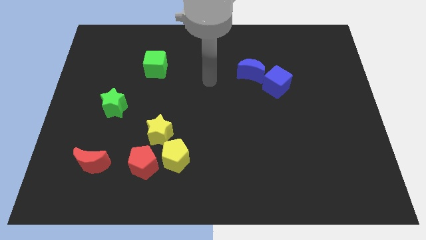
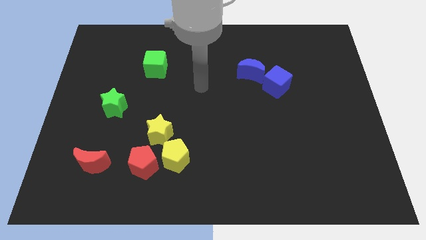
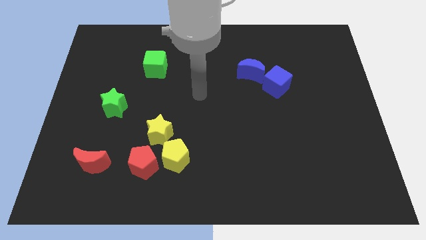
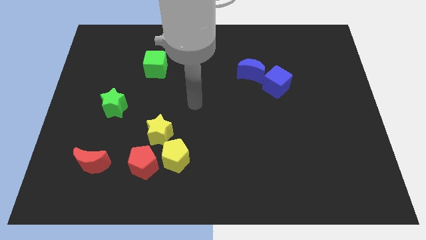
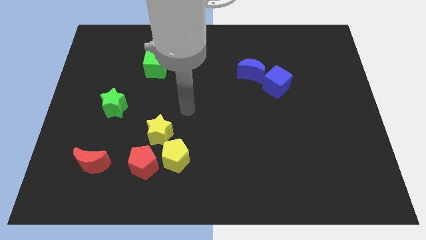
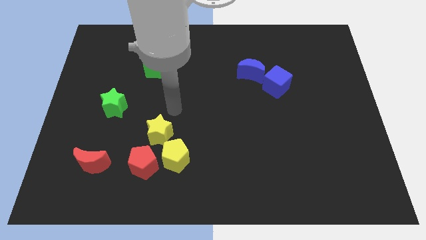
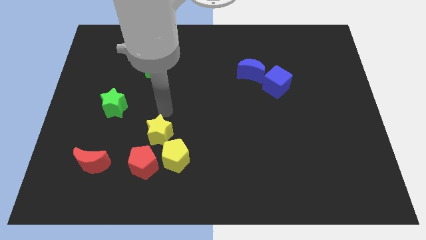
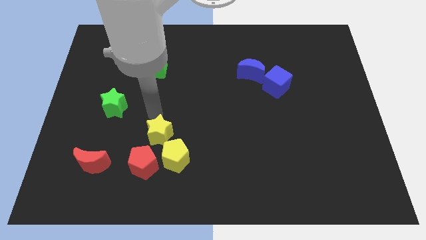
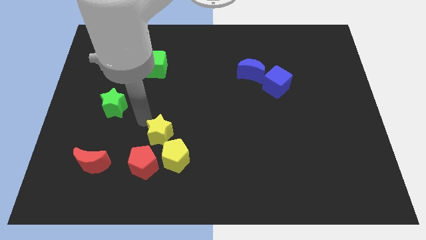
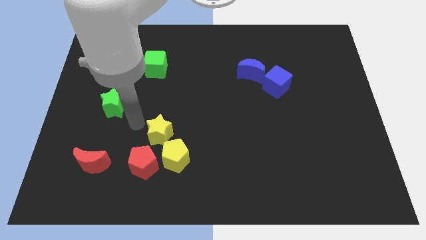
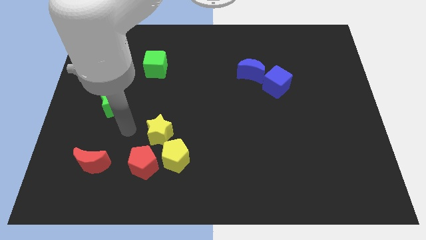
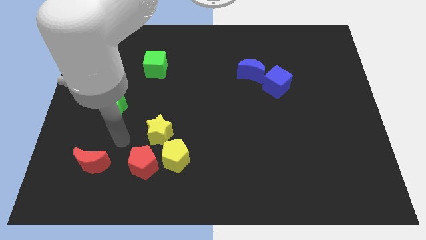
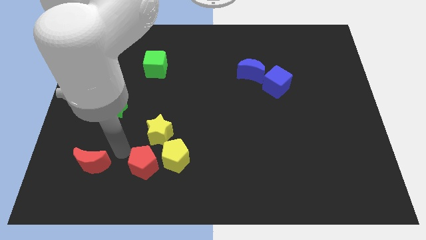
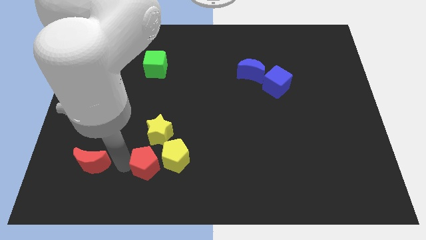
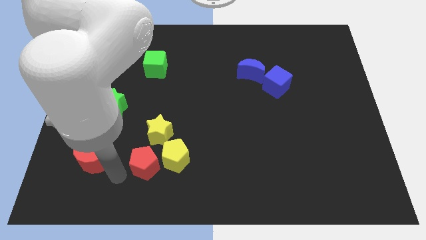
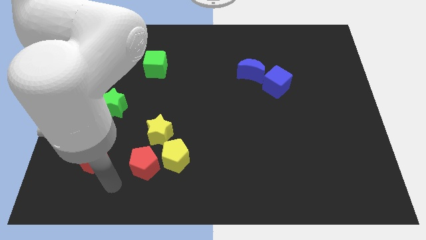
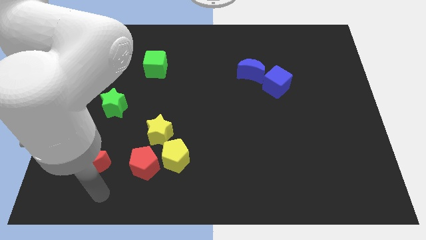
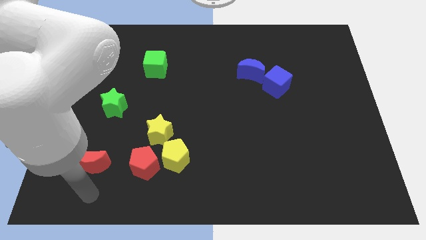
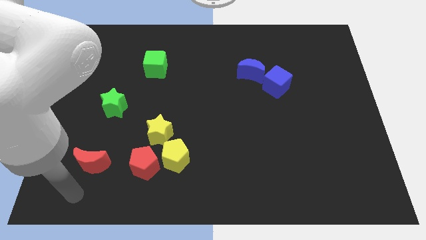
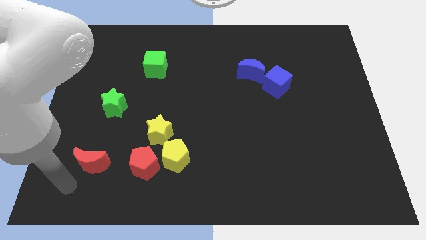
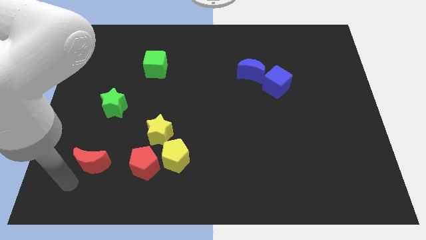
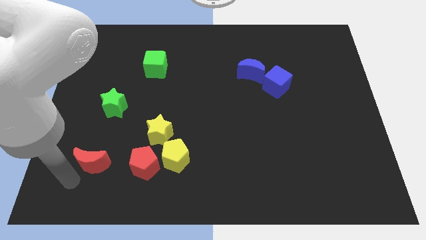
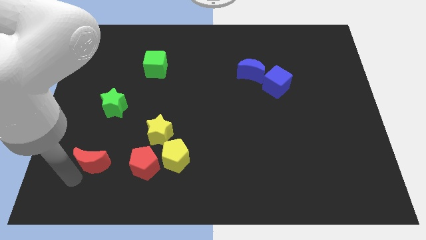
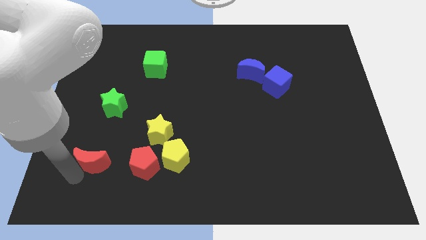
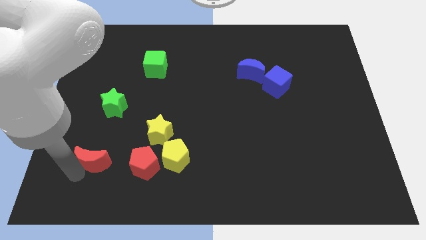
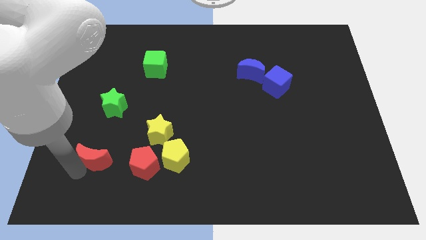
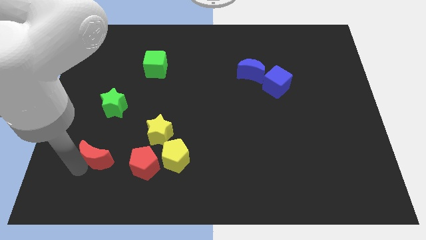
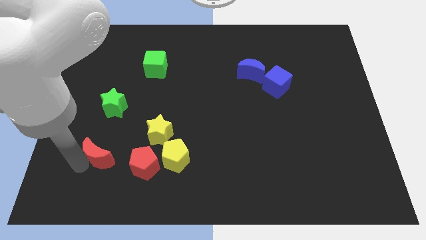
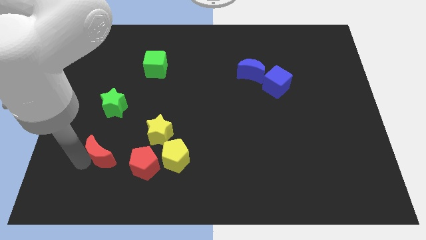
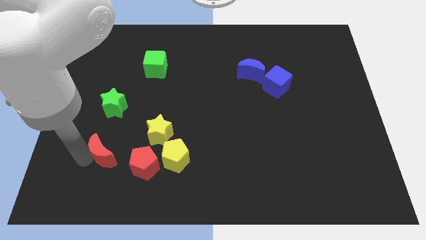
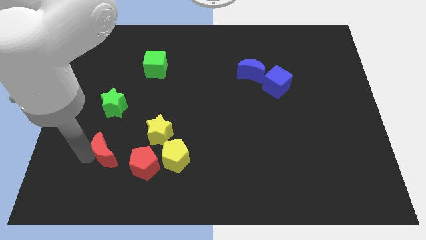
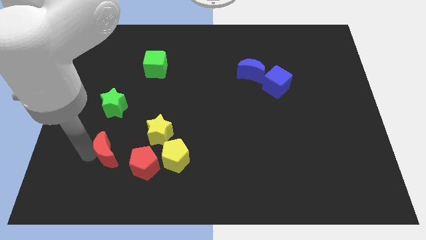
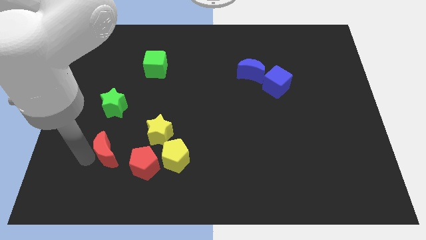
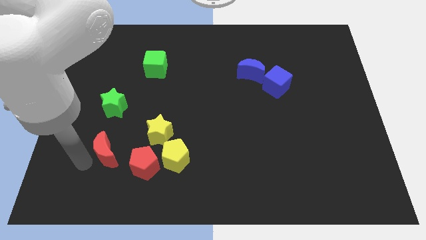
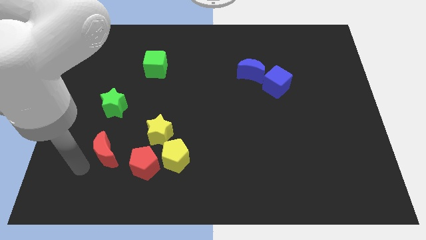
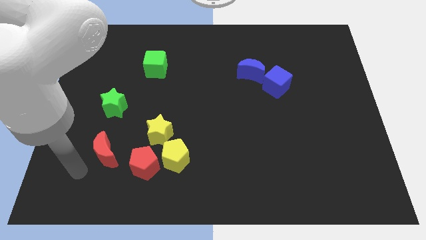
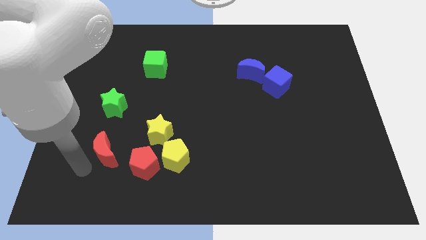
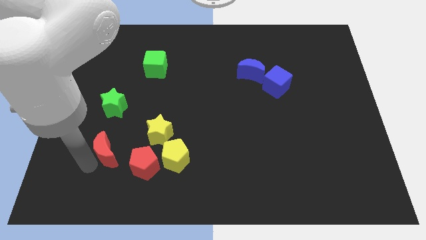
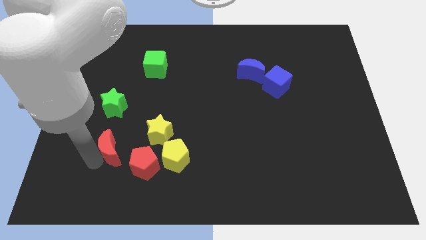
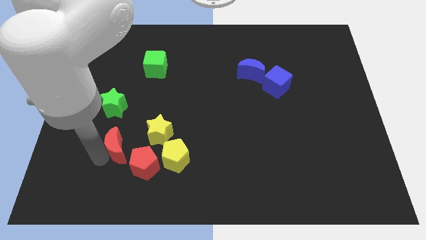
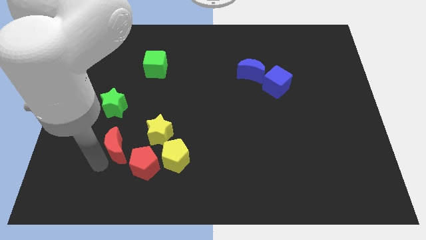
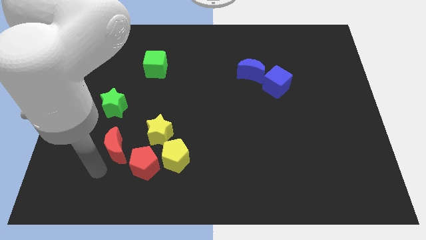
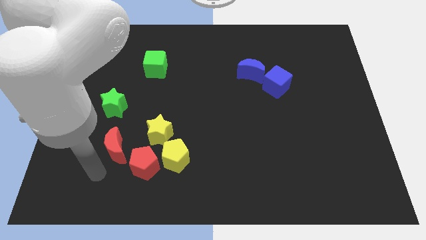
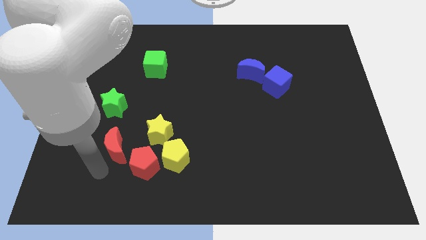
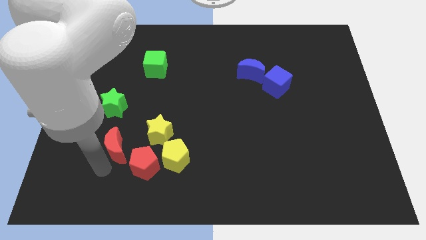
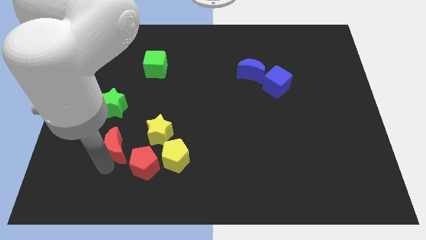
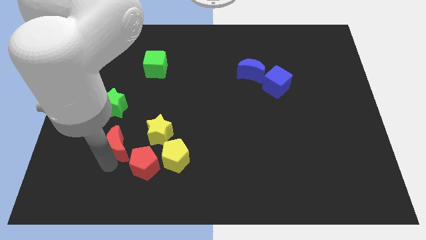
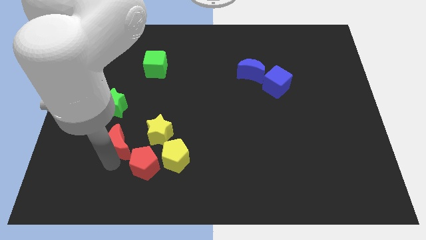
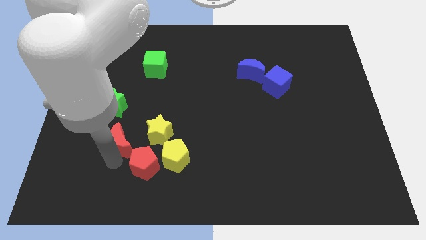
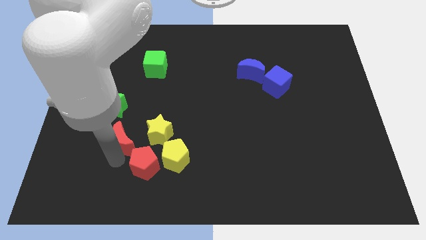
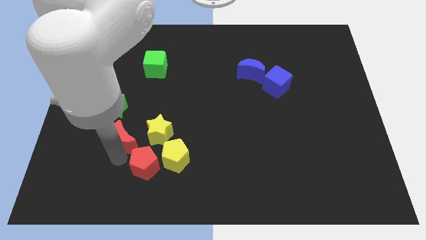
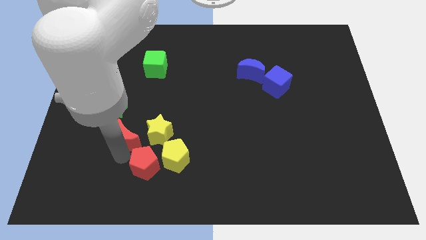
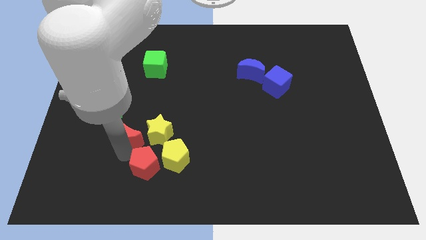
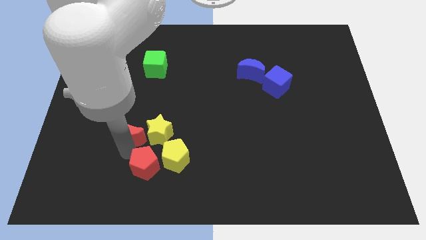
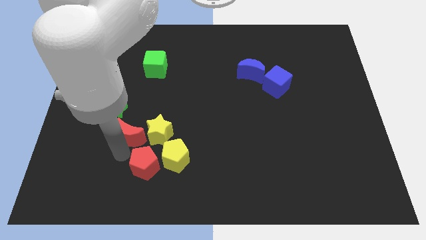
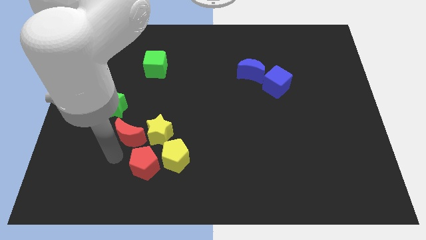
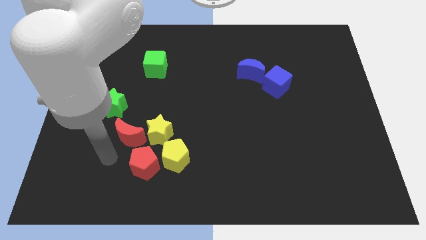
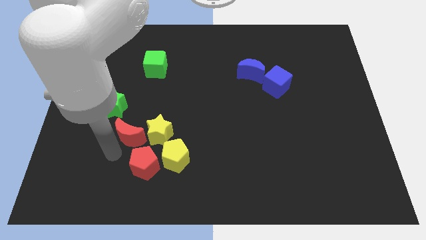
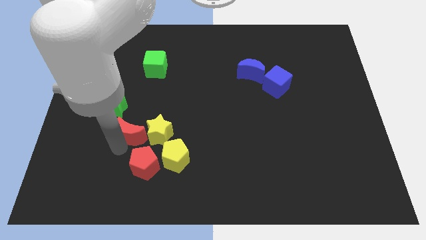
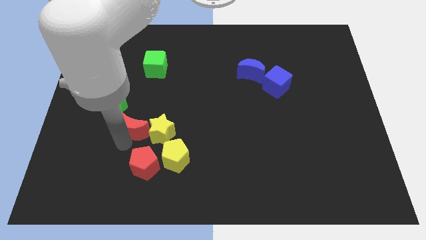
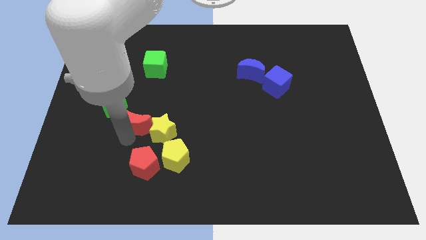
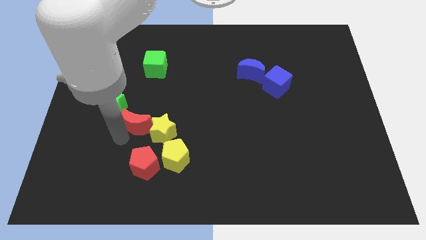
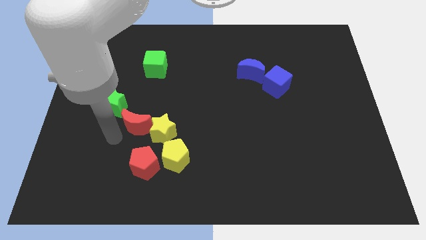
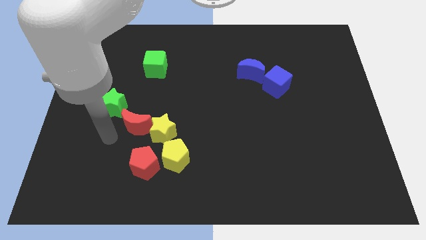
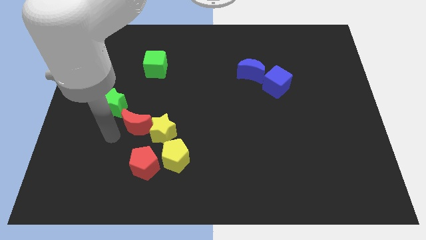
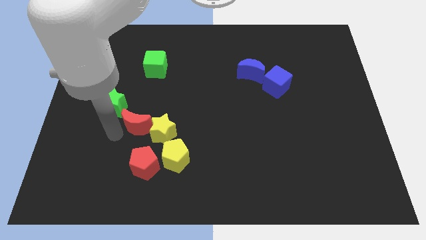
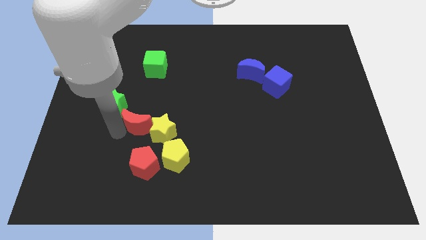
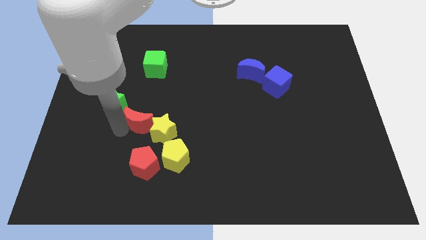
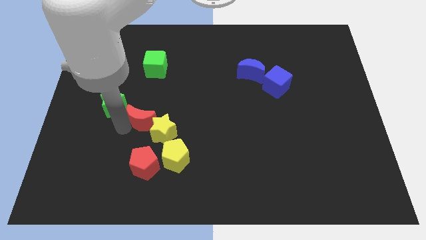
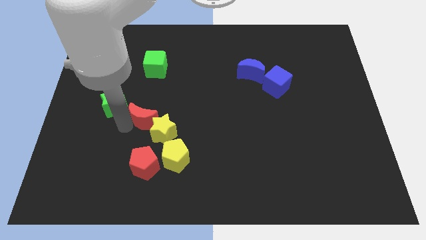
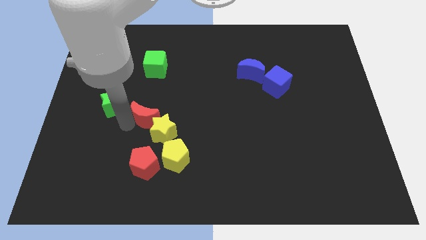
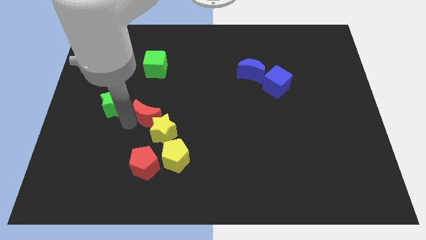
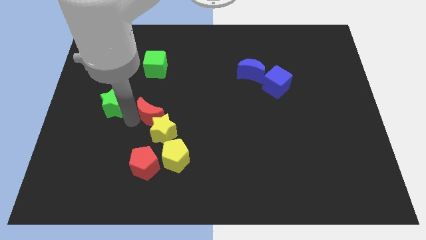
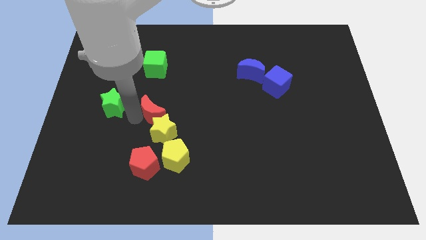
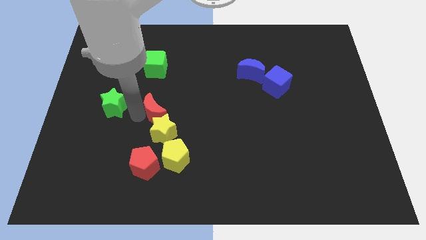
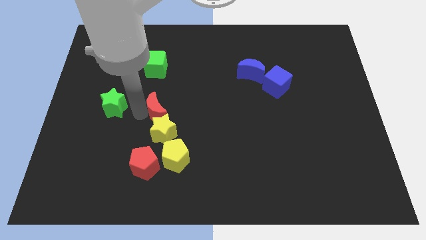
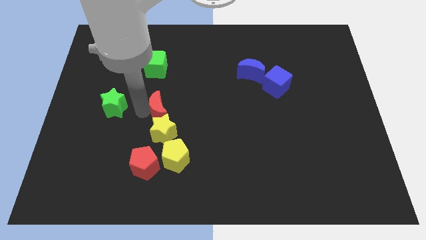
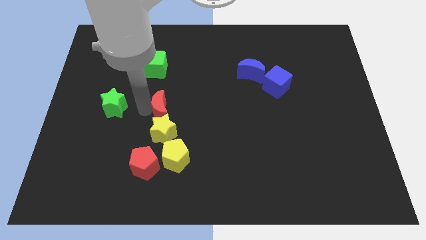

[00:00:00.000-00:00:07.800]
slide the red moon to the middle of the board
